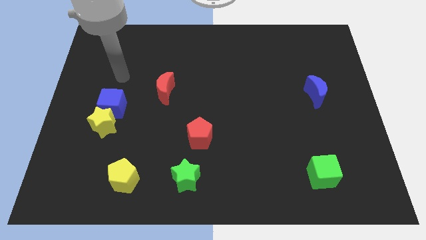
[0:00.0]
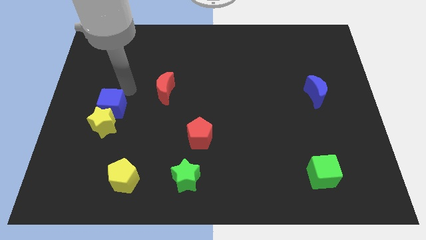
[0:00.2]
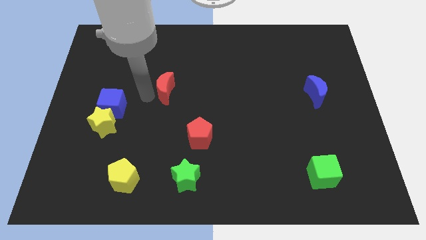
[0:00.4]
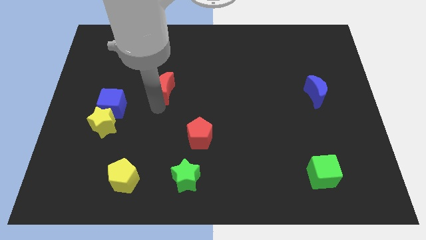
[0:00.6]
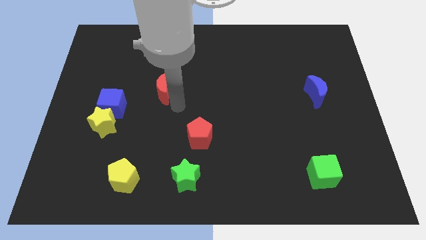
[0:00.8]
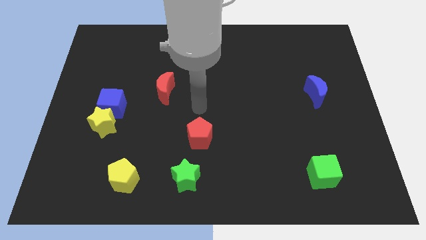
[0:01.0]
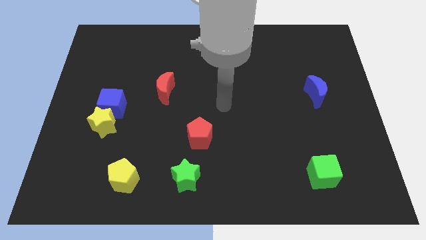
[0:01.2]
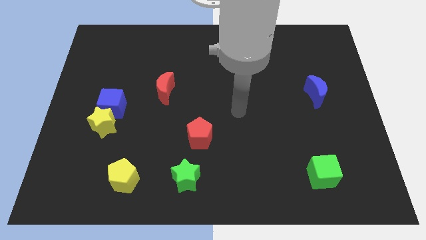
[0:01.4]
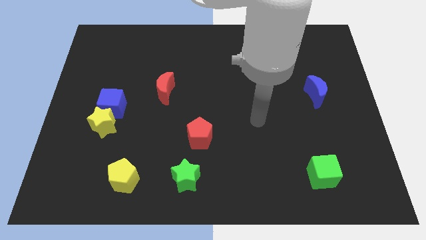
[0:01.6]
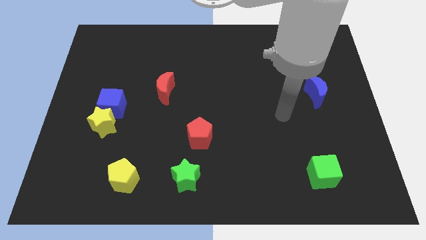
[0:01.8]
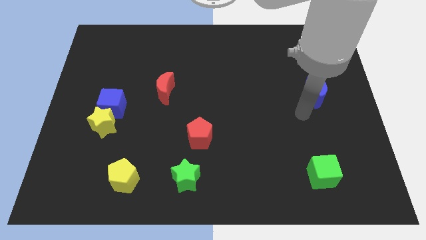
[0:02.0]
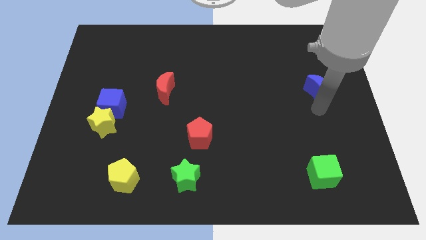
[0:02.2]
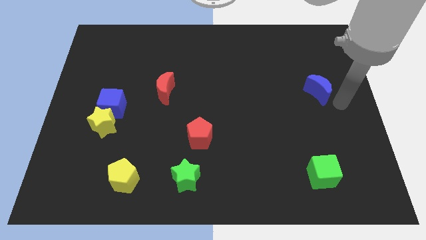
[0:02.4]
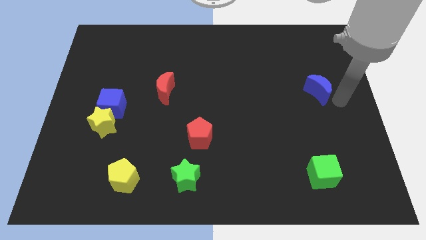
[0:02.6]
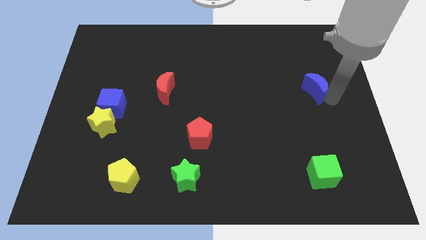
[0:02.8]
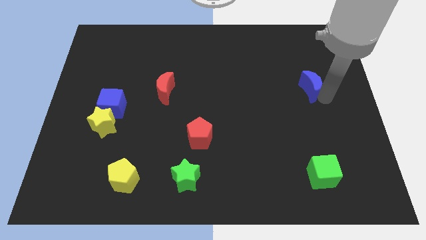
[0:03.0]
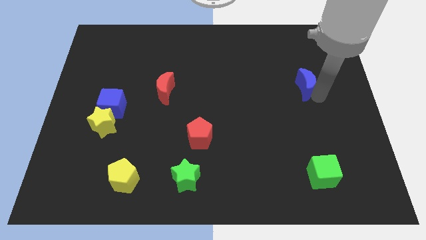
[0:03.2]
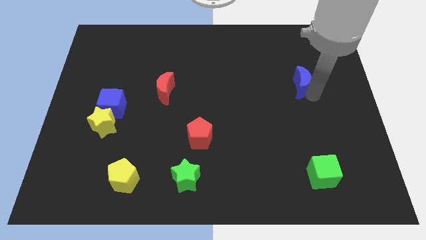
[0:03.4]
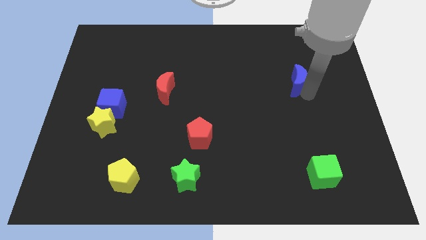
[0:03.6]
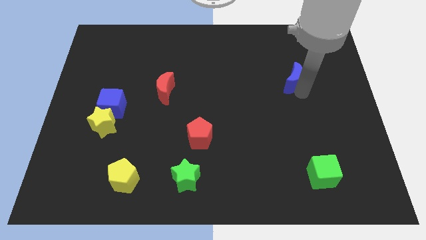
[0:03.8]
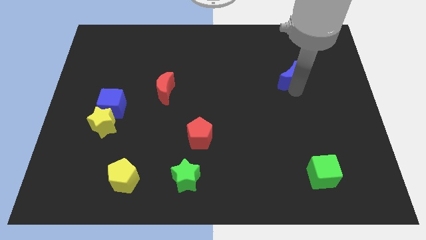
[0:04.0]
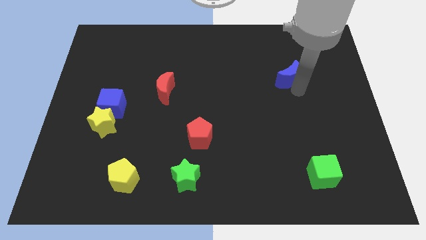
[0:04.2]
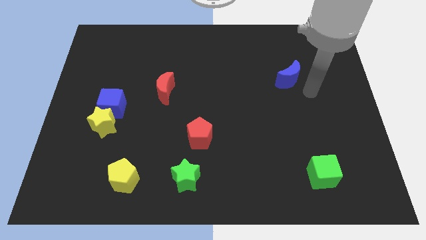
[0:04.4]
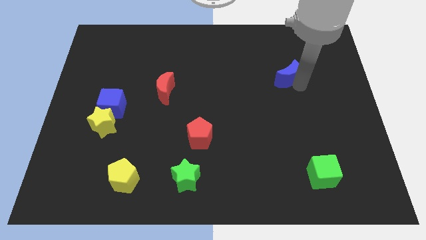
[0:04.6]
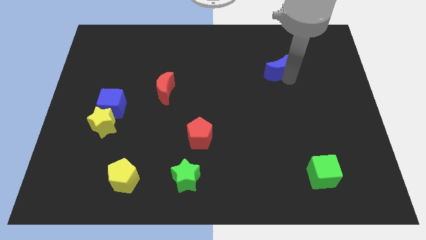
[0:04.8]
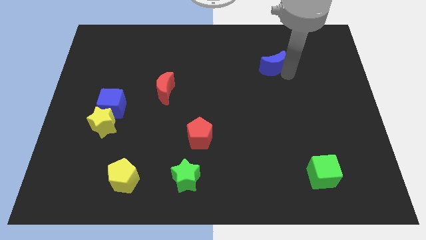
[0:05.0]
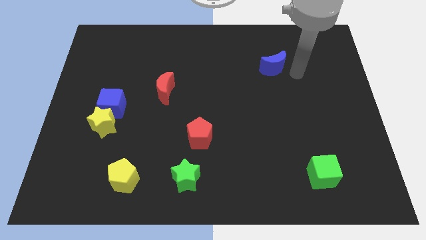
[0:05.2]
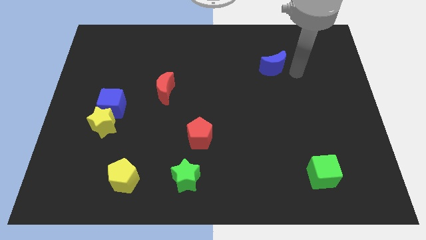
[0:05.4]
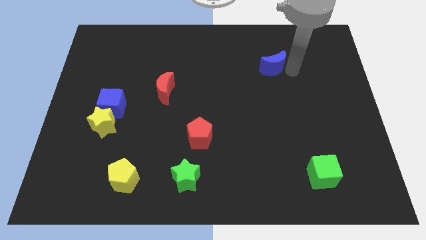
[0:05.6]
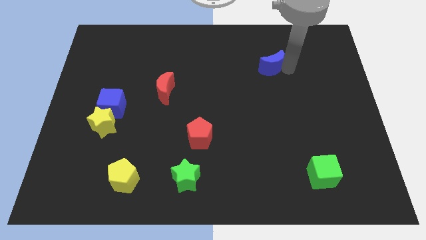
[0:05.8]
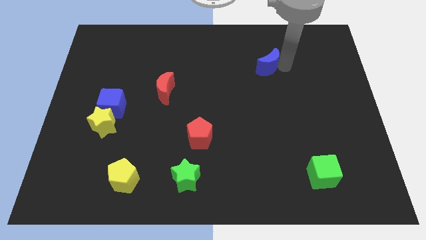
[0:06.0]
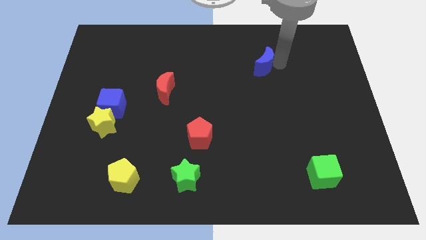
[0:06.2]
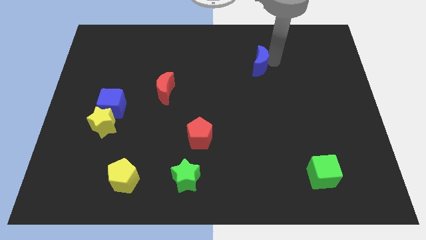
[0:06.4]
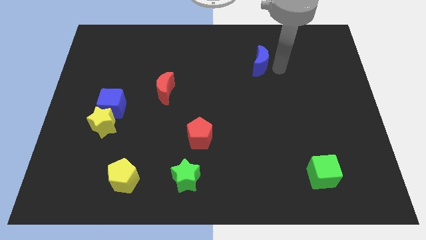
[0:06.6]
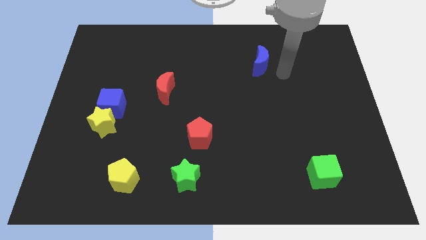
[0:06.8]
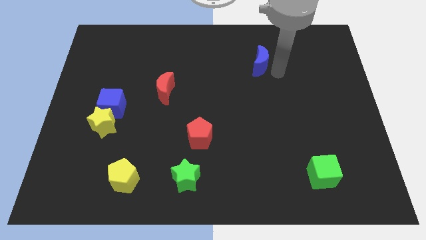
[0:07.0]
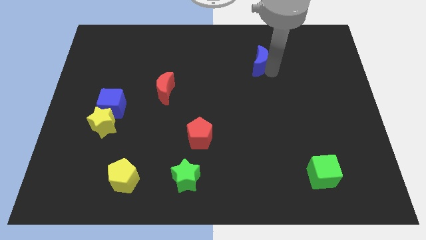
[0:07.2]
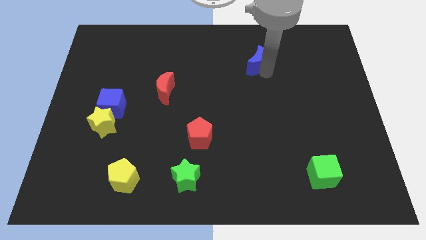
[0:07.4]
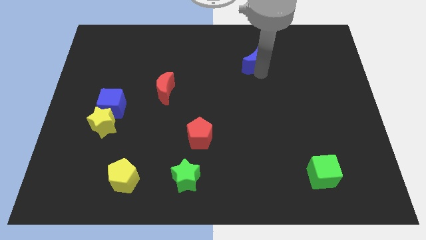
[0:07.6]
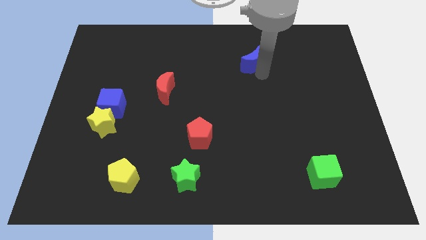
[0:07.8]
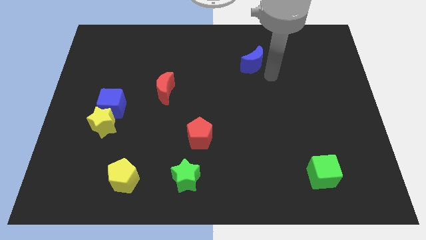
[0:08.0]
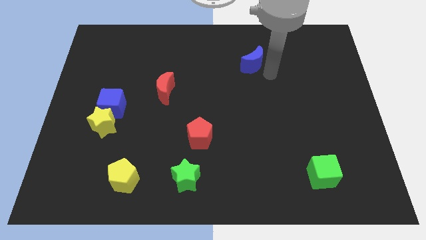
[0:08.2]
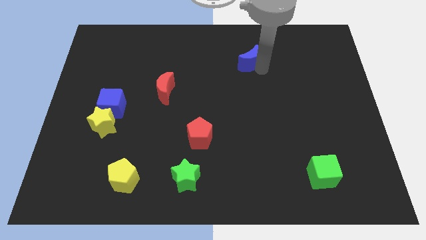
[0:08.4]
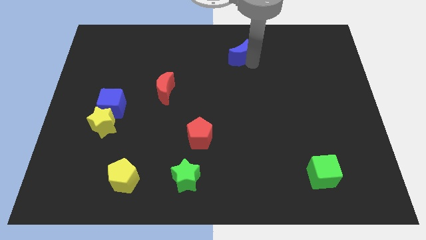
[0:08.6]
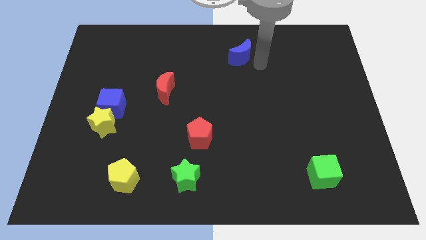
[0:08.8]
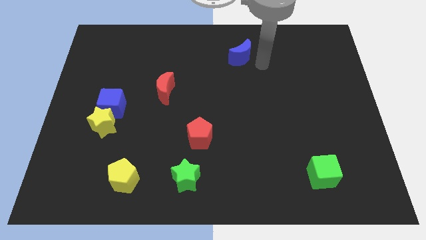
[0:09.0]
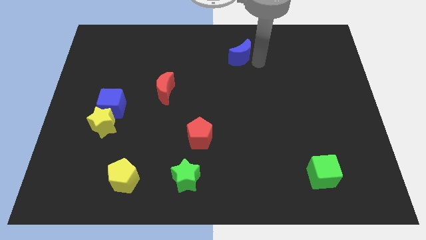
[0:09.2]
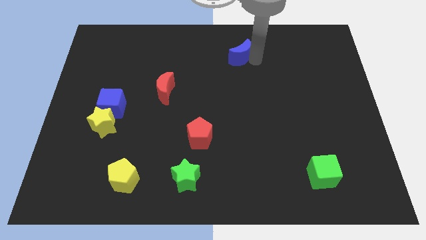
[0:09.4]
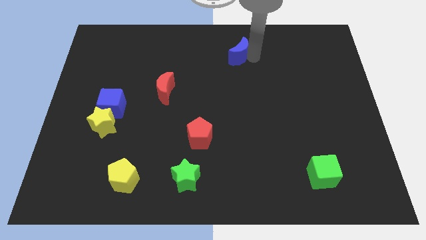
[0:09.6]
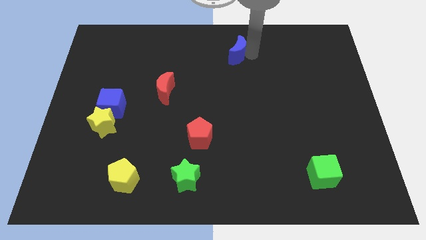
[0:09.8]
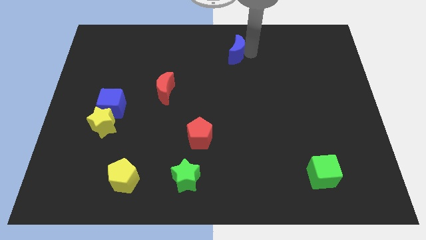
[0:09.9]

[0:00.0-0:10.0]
push the blue moon to the towards your base
